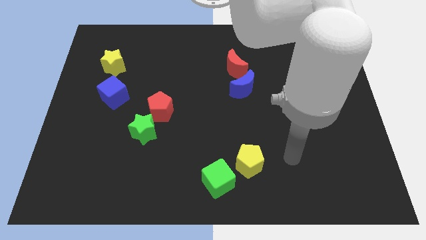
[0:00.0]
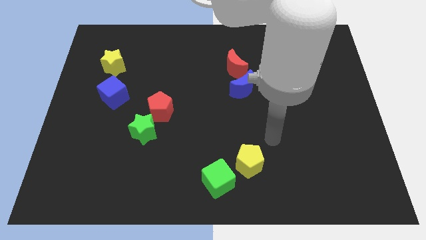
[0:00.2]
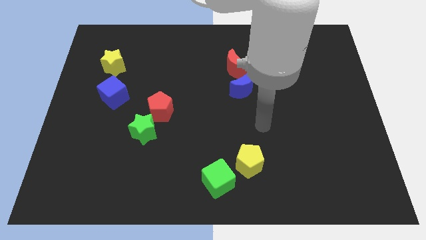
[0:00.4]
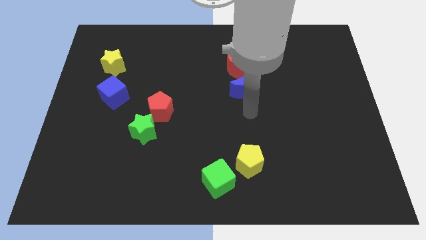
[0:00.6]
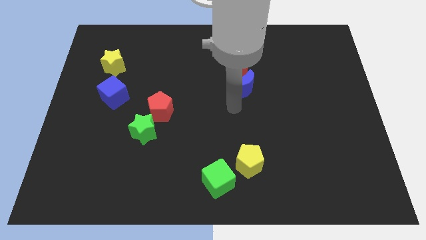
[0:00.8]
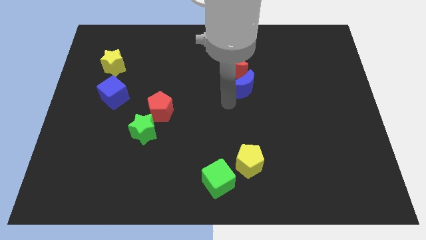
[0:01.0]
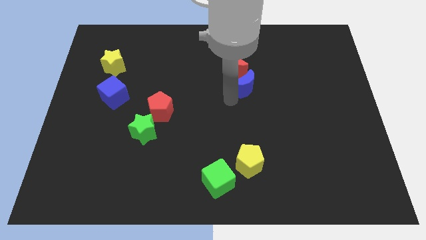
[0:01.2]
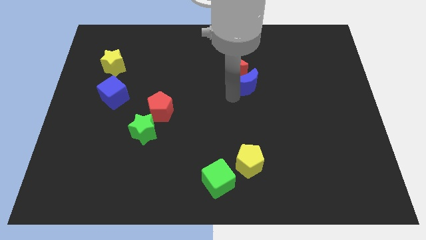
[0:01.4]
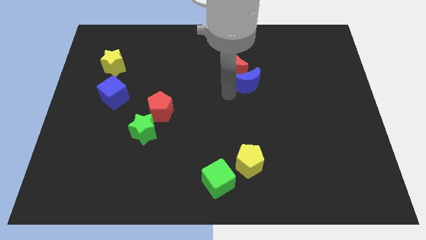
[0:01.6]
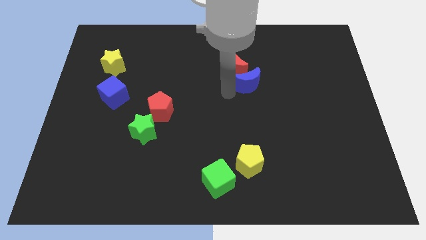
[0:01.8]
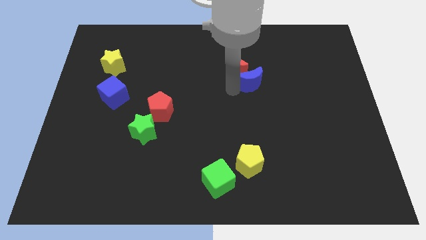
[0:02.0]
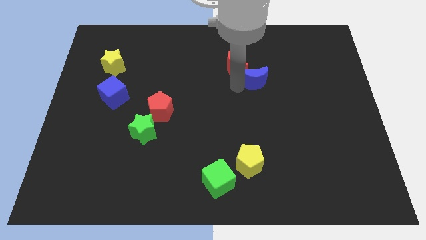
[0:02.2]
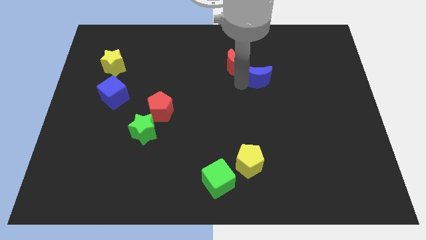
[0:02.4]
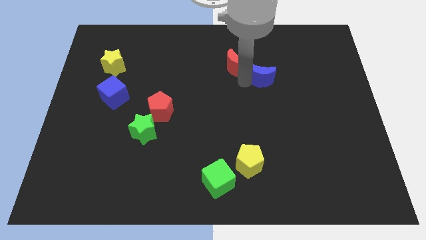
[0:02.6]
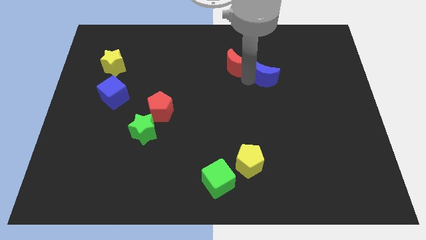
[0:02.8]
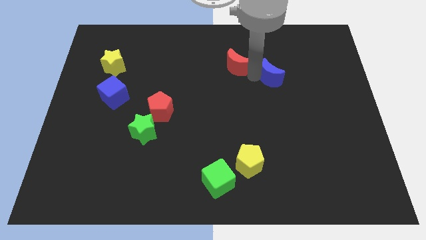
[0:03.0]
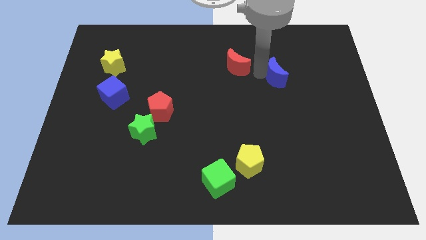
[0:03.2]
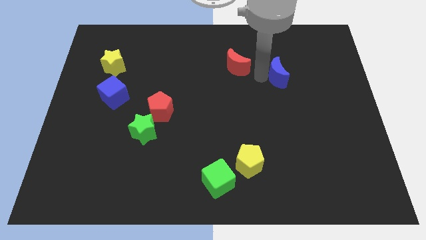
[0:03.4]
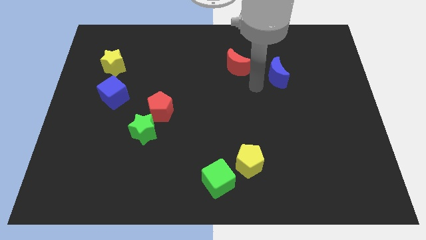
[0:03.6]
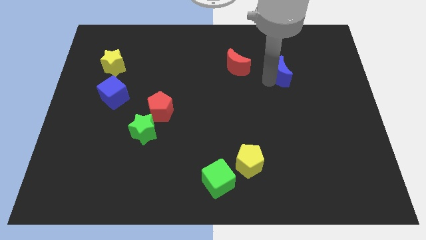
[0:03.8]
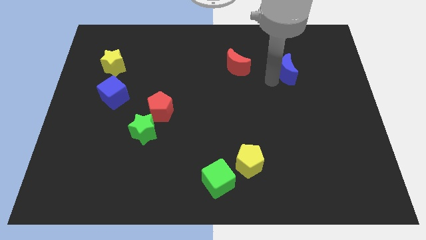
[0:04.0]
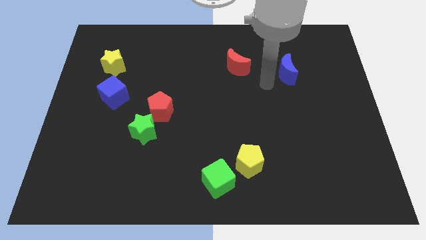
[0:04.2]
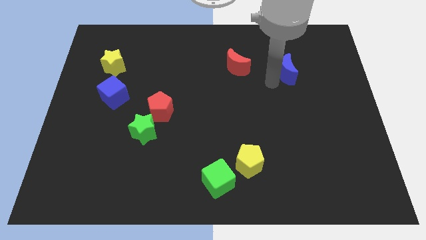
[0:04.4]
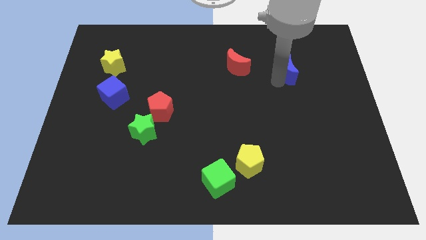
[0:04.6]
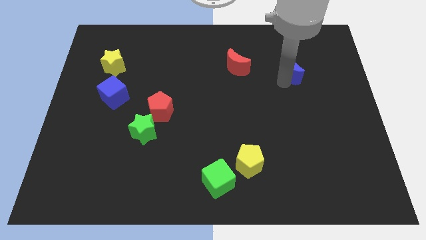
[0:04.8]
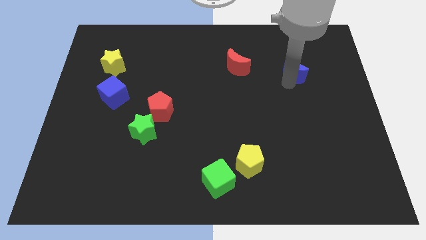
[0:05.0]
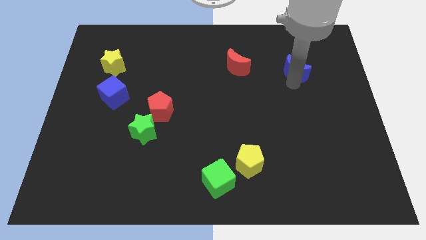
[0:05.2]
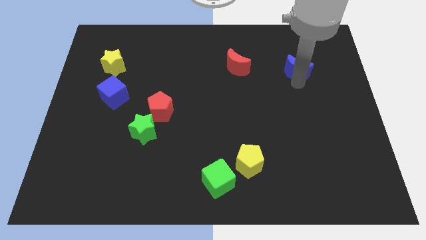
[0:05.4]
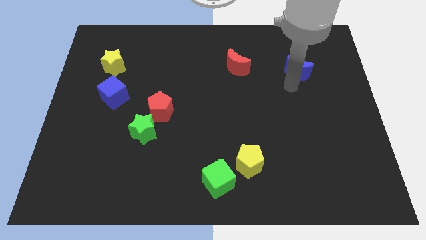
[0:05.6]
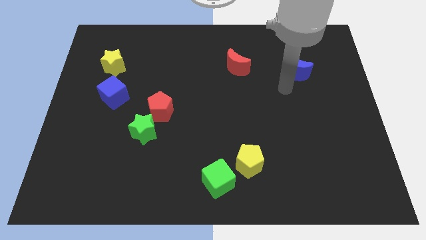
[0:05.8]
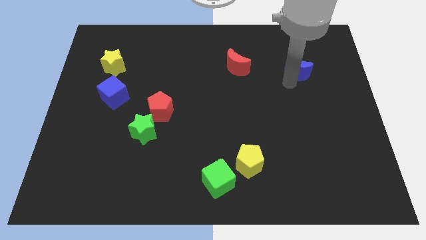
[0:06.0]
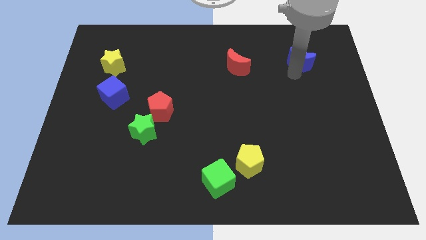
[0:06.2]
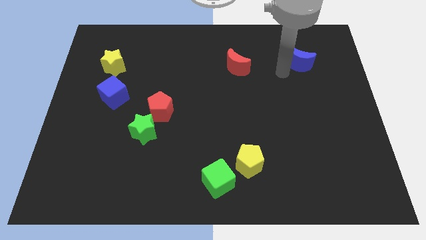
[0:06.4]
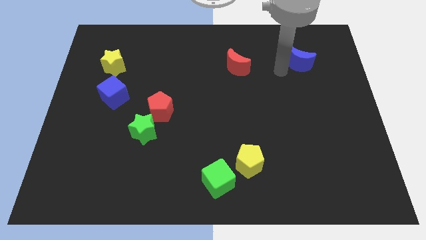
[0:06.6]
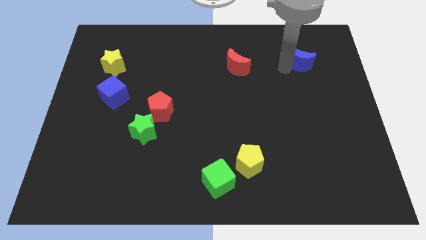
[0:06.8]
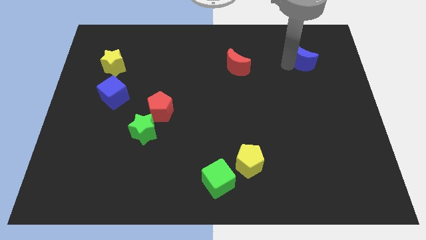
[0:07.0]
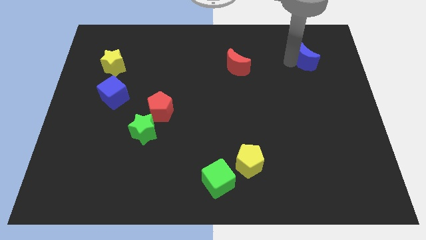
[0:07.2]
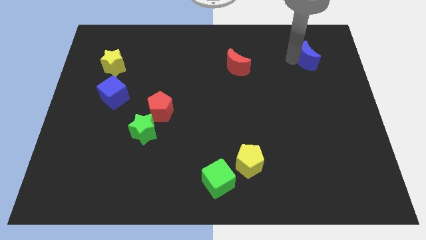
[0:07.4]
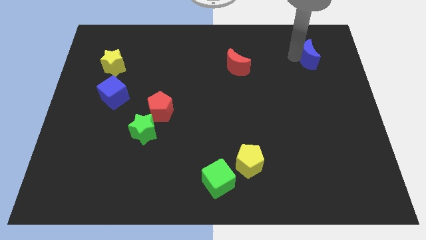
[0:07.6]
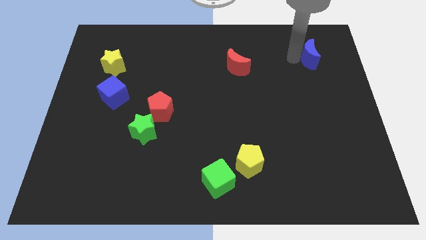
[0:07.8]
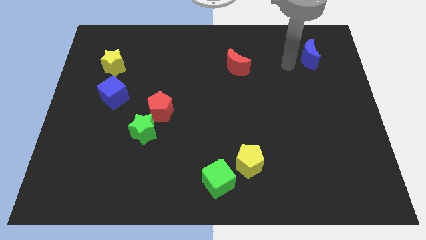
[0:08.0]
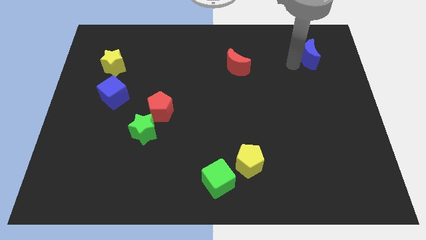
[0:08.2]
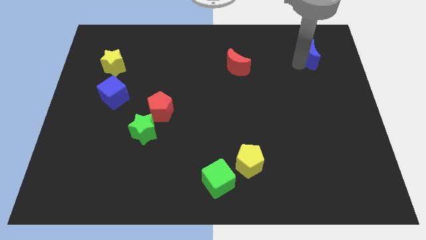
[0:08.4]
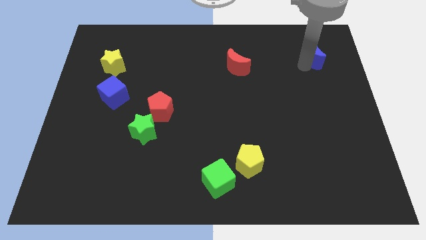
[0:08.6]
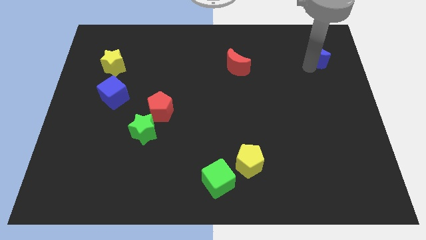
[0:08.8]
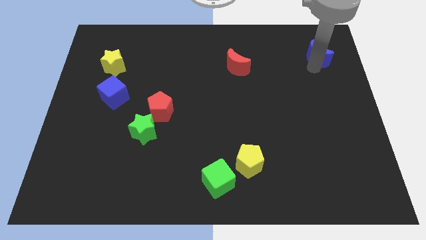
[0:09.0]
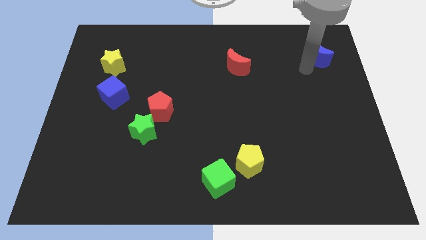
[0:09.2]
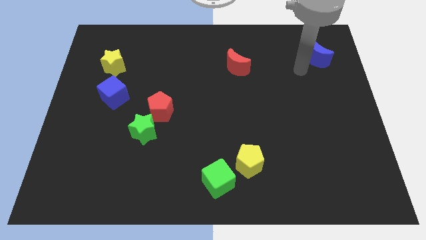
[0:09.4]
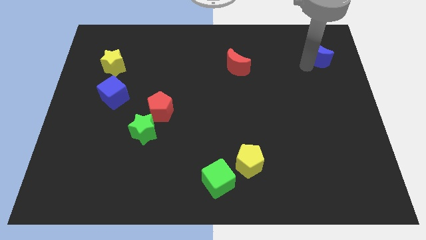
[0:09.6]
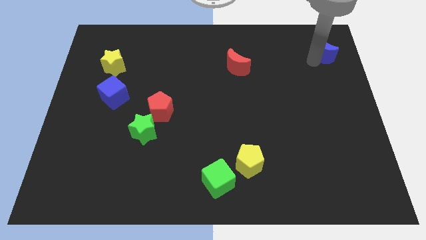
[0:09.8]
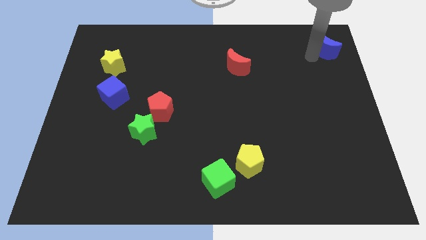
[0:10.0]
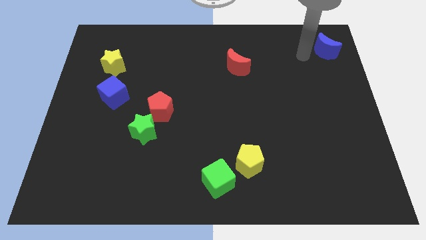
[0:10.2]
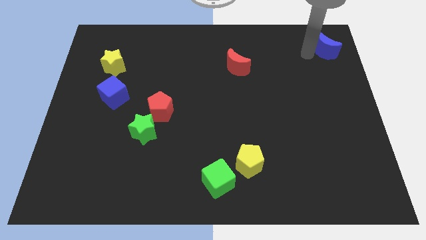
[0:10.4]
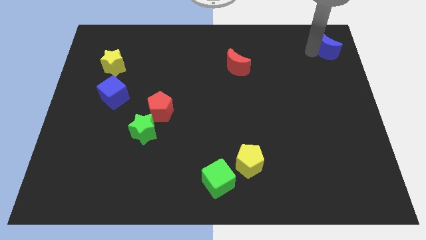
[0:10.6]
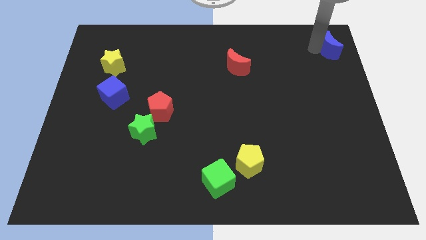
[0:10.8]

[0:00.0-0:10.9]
push the blue moon to the top right

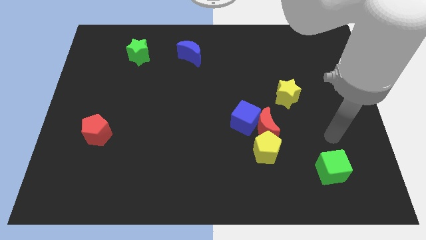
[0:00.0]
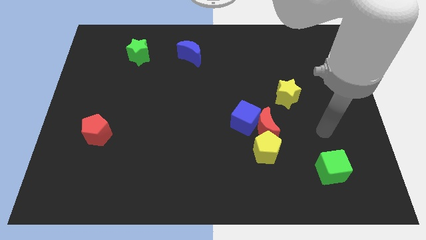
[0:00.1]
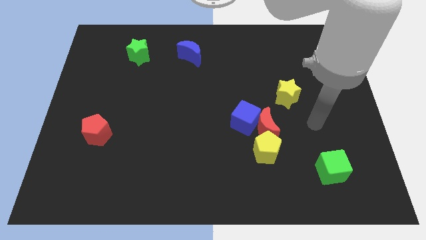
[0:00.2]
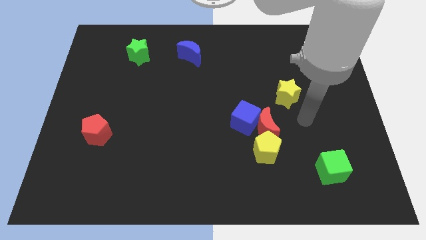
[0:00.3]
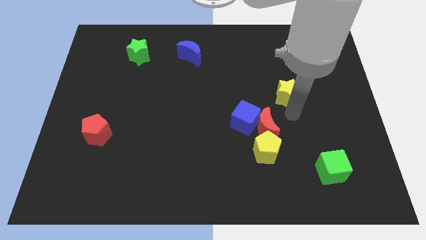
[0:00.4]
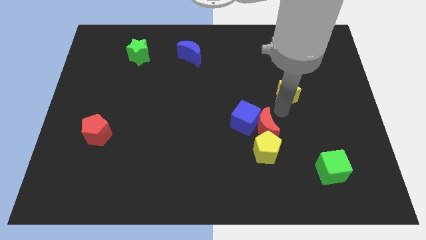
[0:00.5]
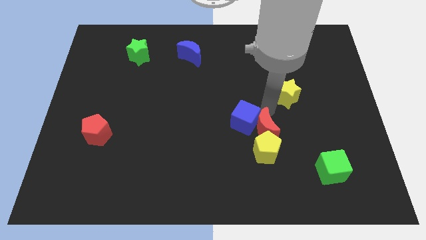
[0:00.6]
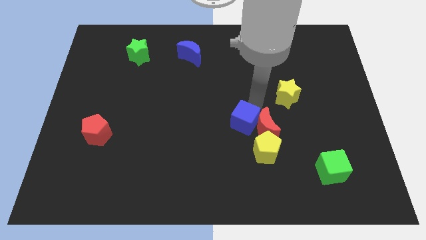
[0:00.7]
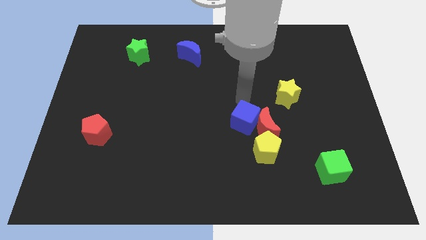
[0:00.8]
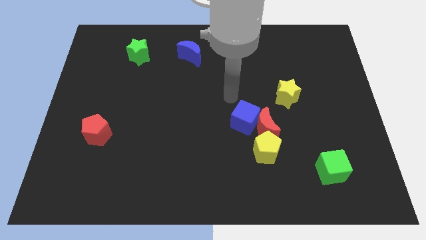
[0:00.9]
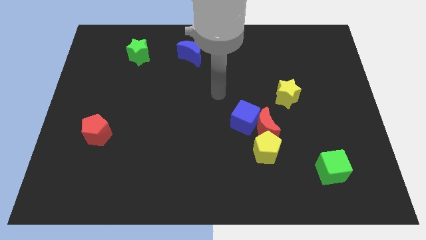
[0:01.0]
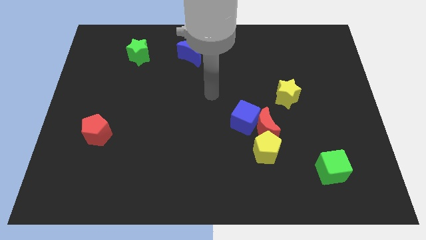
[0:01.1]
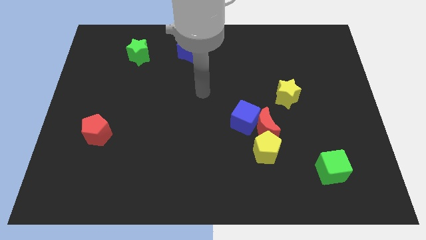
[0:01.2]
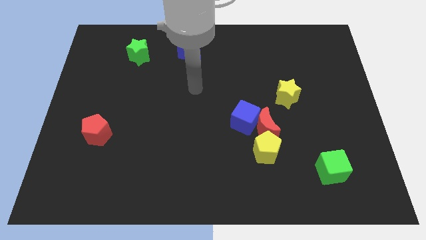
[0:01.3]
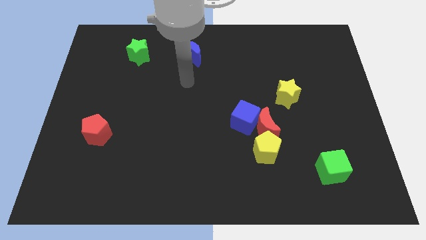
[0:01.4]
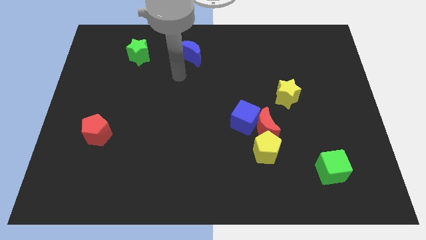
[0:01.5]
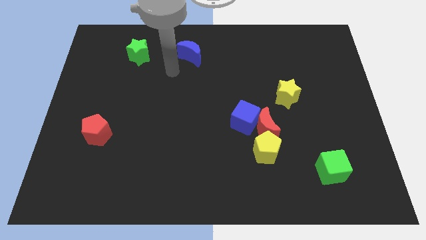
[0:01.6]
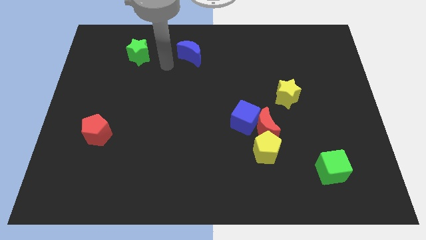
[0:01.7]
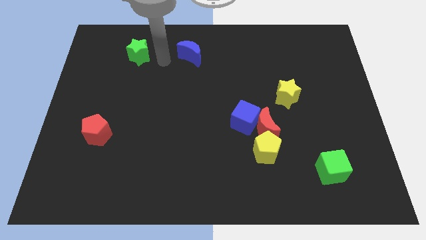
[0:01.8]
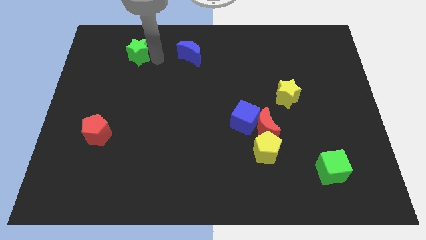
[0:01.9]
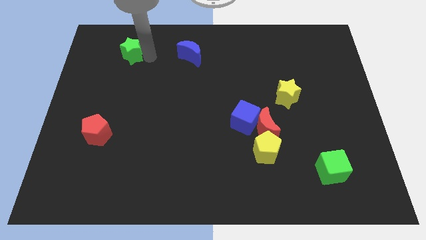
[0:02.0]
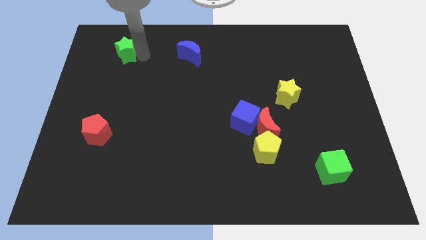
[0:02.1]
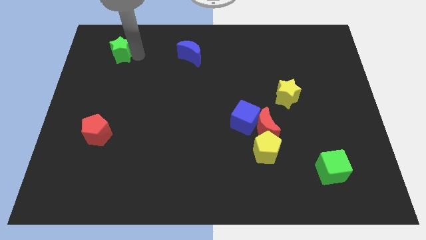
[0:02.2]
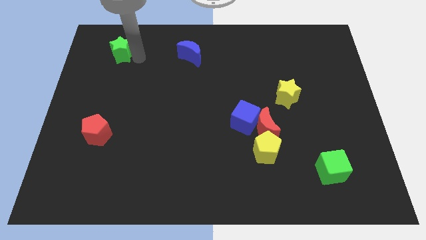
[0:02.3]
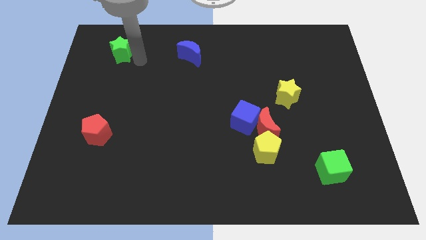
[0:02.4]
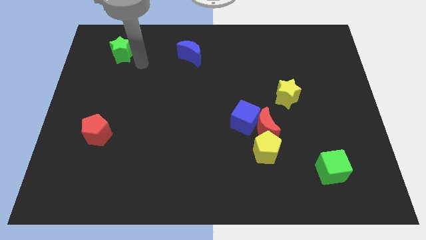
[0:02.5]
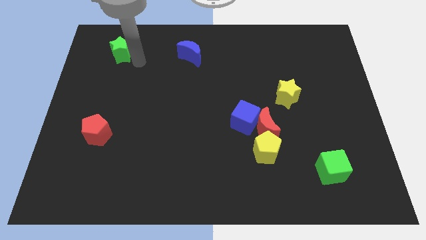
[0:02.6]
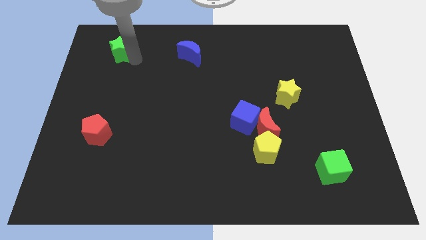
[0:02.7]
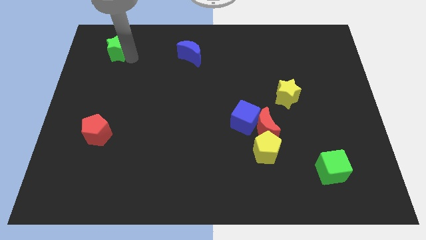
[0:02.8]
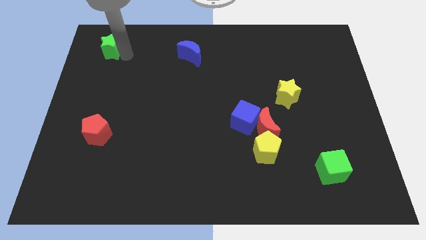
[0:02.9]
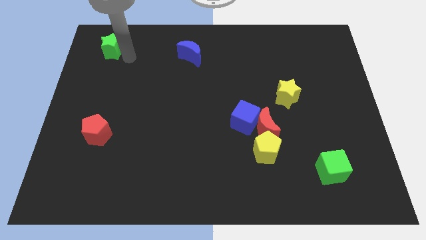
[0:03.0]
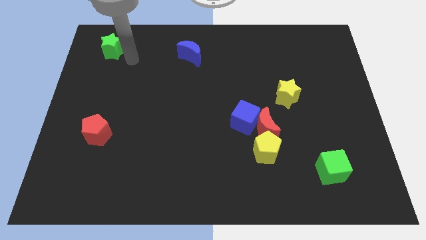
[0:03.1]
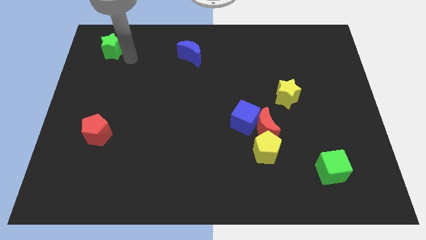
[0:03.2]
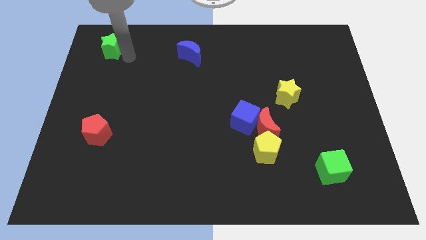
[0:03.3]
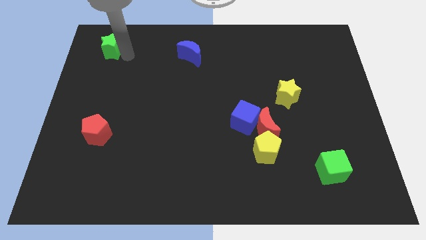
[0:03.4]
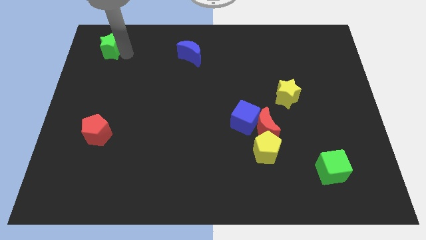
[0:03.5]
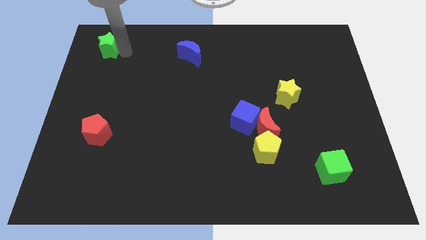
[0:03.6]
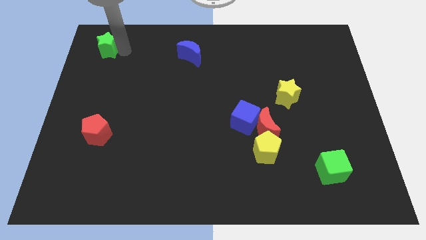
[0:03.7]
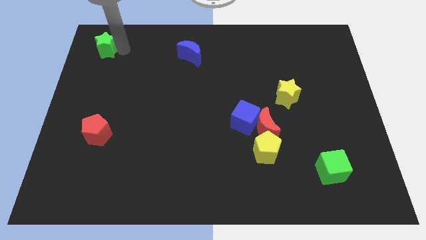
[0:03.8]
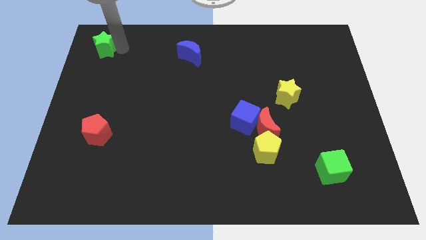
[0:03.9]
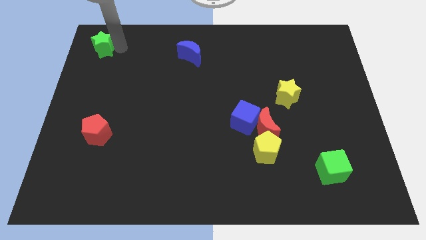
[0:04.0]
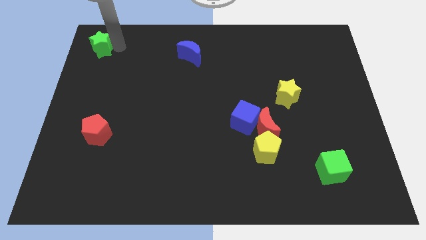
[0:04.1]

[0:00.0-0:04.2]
slide the green star to the top left
